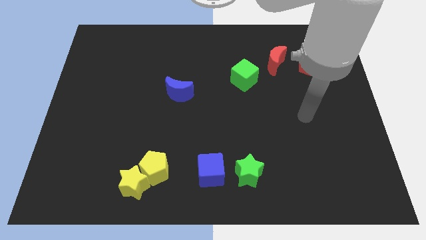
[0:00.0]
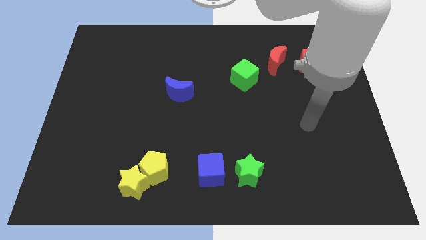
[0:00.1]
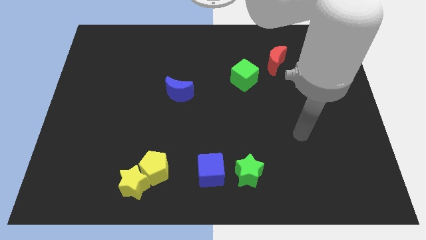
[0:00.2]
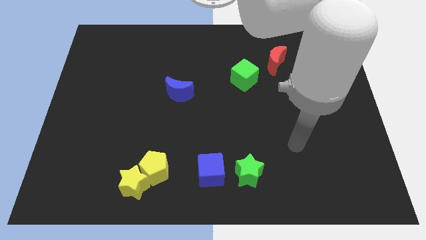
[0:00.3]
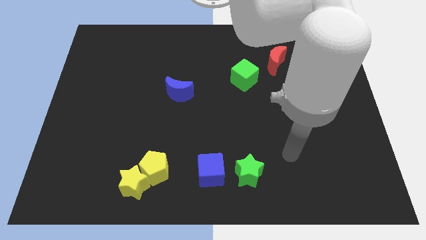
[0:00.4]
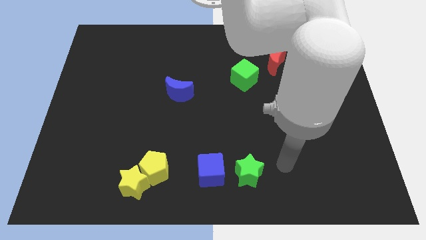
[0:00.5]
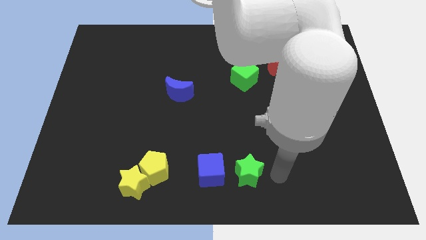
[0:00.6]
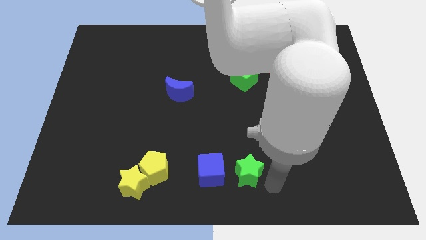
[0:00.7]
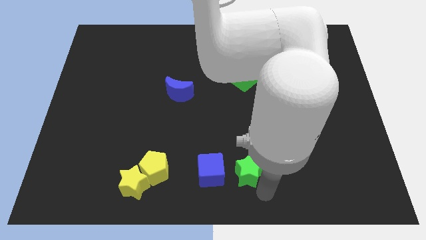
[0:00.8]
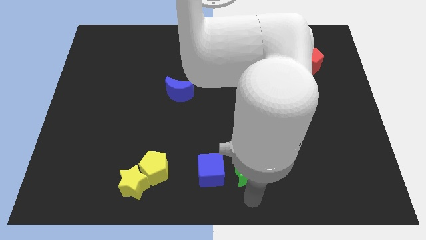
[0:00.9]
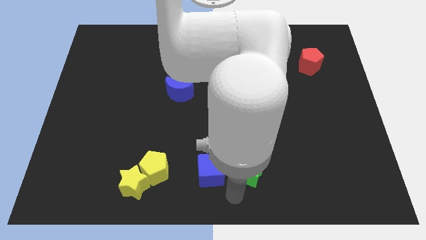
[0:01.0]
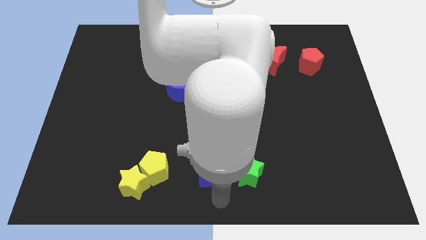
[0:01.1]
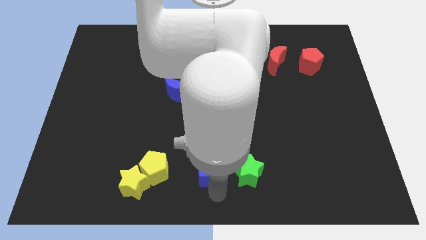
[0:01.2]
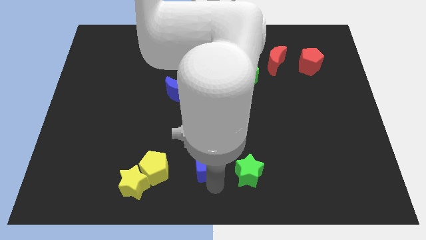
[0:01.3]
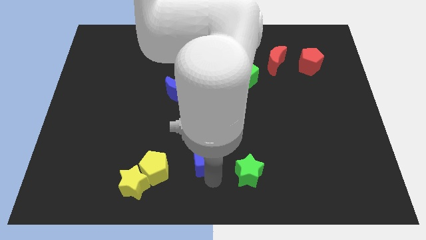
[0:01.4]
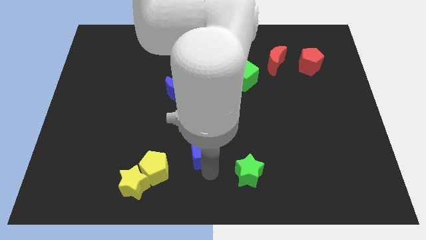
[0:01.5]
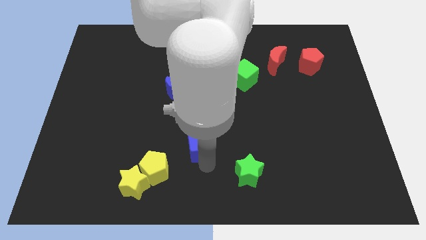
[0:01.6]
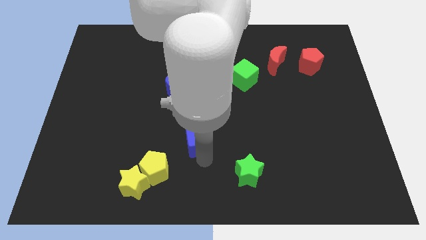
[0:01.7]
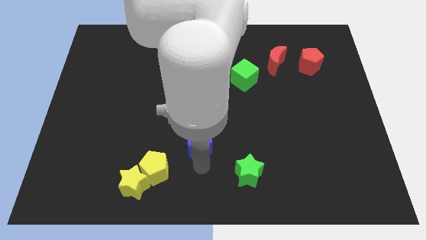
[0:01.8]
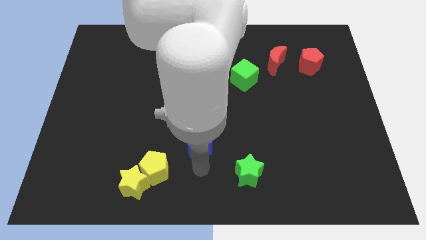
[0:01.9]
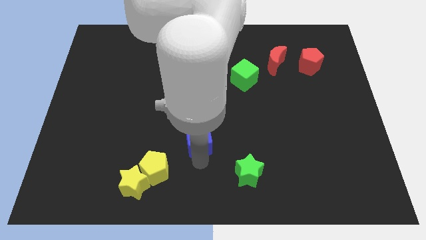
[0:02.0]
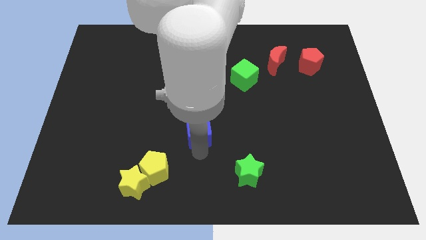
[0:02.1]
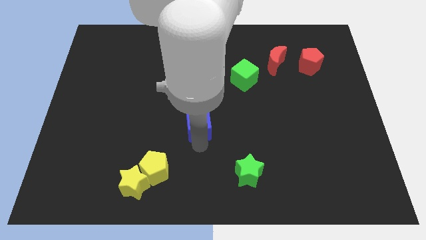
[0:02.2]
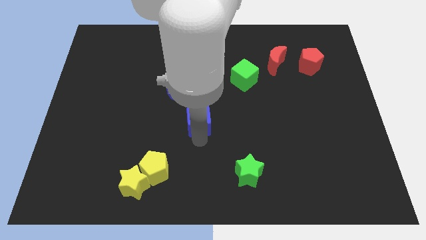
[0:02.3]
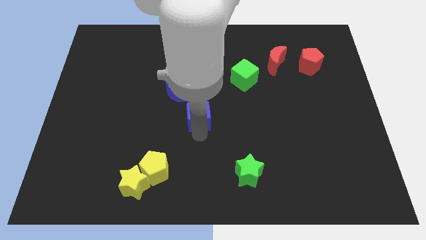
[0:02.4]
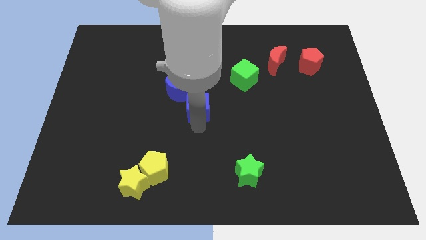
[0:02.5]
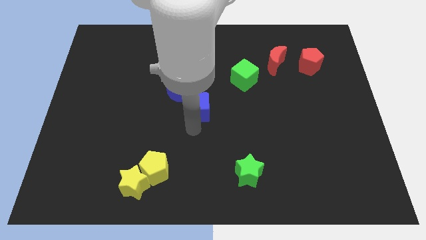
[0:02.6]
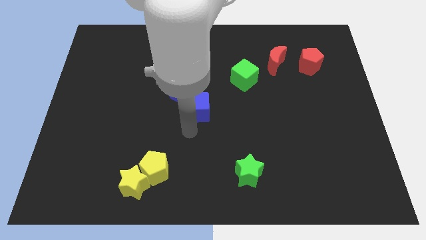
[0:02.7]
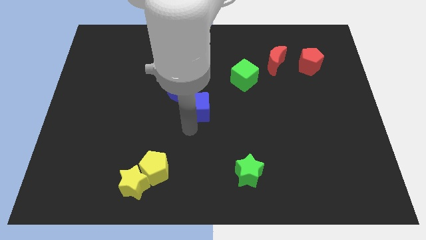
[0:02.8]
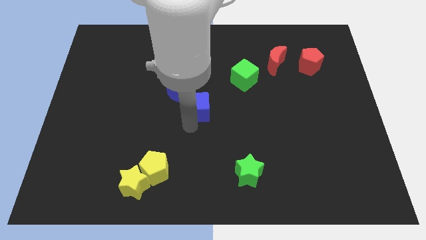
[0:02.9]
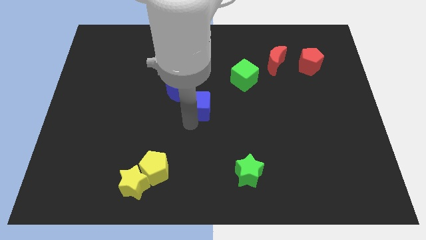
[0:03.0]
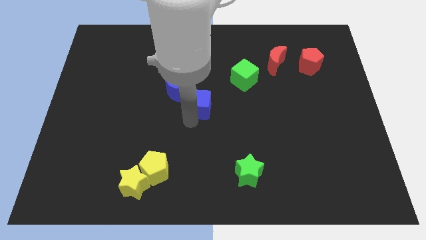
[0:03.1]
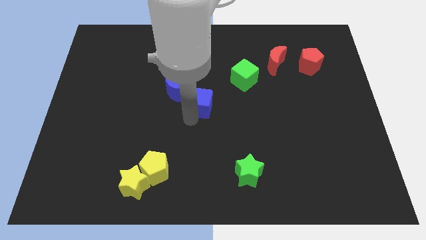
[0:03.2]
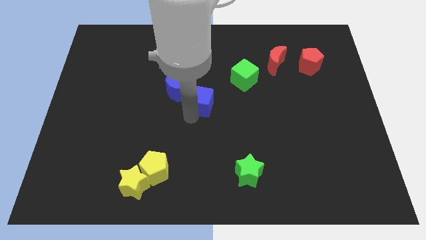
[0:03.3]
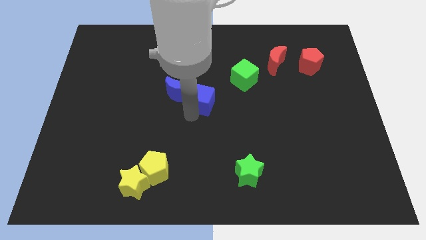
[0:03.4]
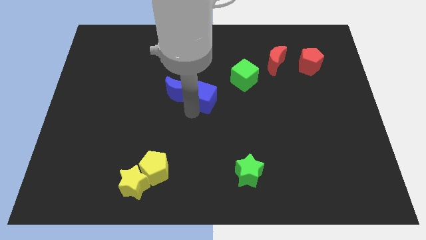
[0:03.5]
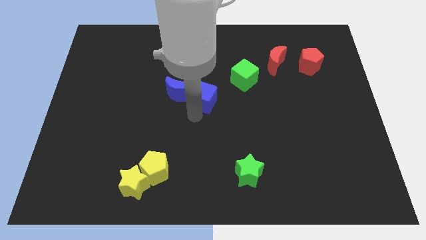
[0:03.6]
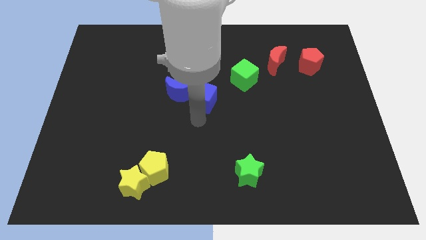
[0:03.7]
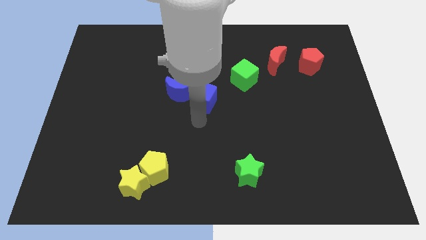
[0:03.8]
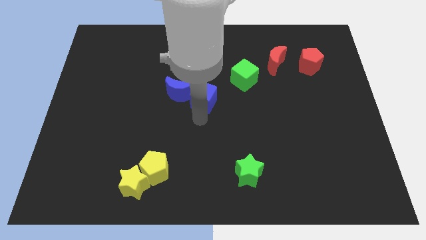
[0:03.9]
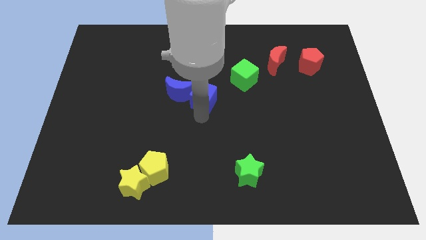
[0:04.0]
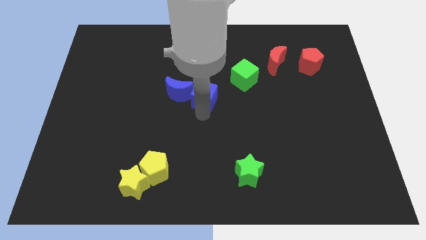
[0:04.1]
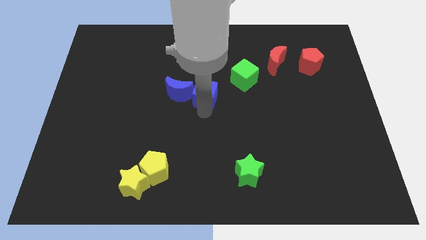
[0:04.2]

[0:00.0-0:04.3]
push the blue cube upwards

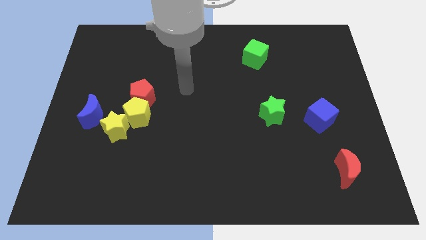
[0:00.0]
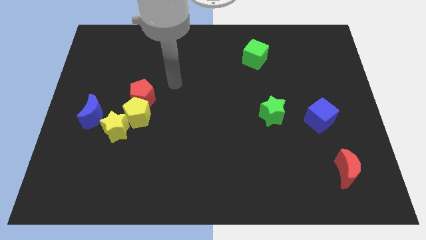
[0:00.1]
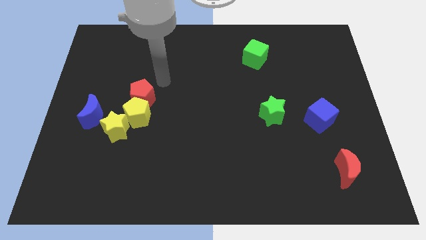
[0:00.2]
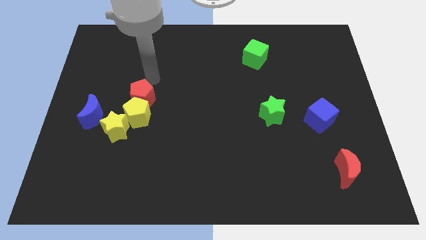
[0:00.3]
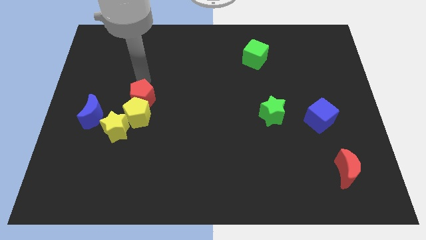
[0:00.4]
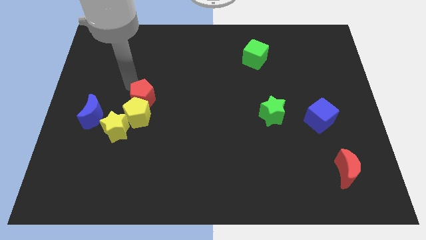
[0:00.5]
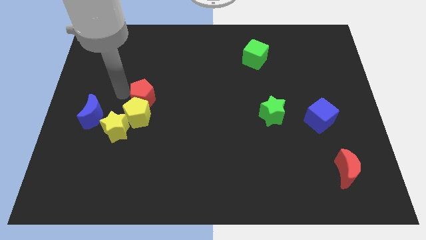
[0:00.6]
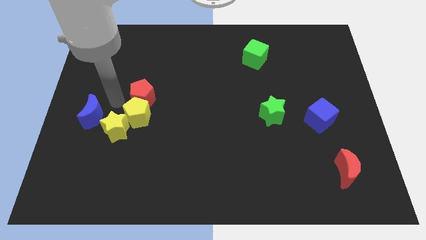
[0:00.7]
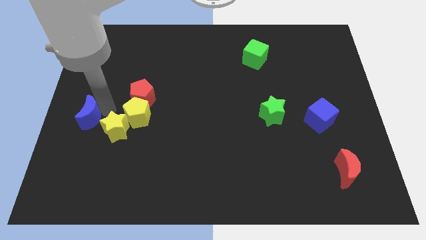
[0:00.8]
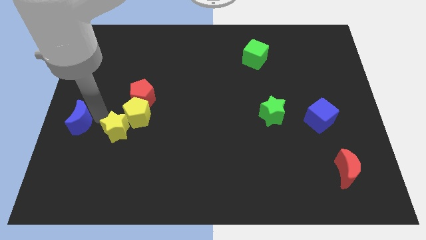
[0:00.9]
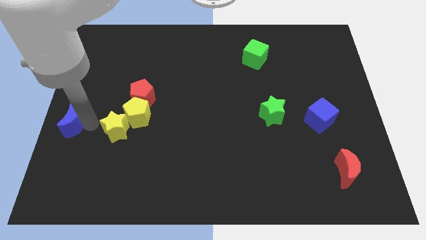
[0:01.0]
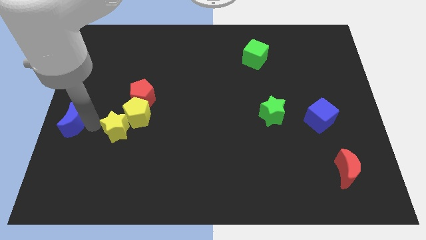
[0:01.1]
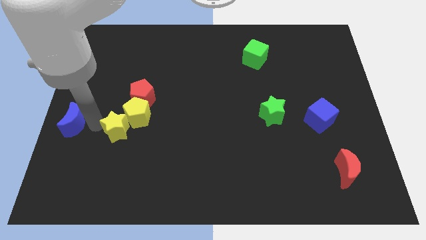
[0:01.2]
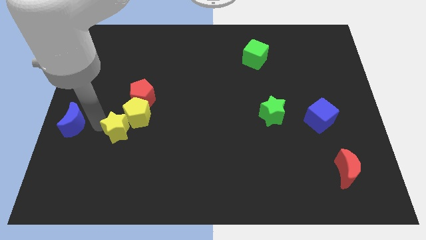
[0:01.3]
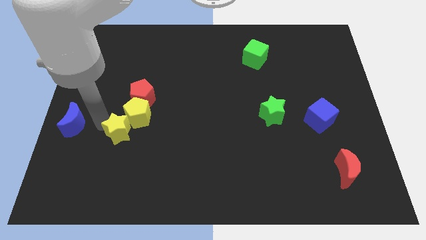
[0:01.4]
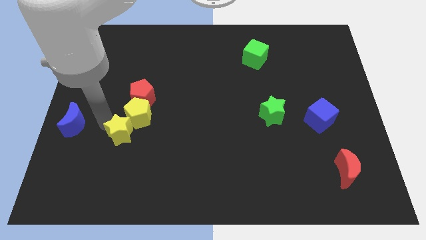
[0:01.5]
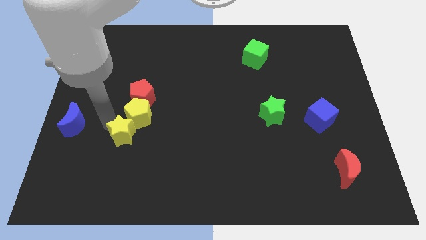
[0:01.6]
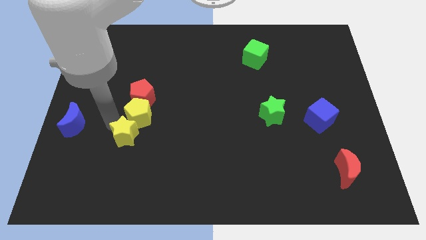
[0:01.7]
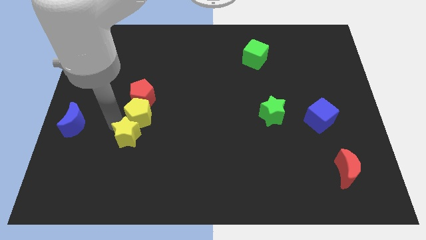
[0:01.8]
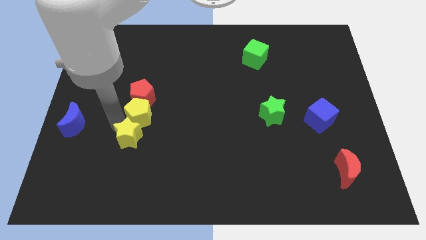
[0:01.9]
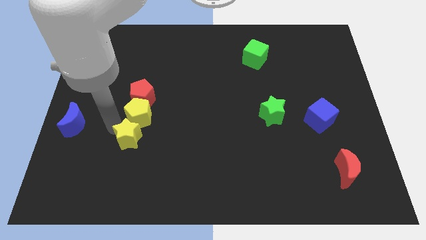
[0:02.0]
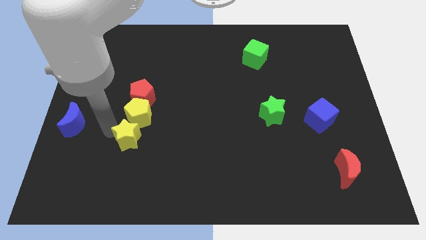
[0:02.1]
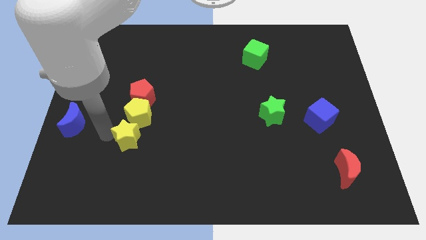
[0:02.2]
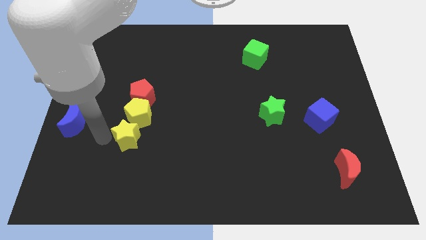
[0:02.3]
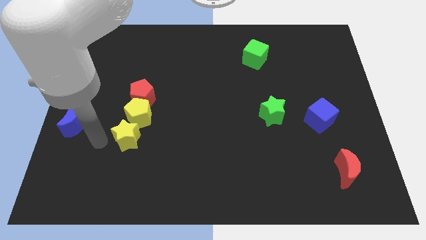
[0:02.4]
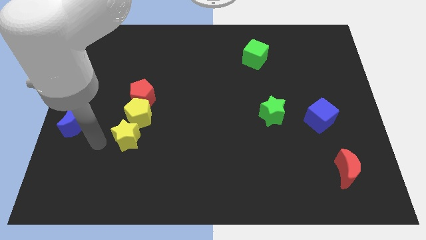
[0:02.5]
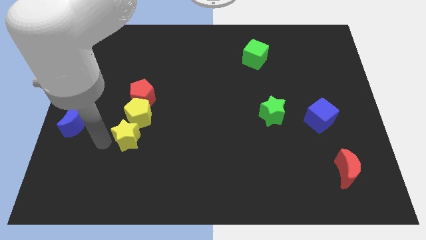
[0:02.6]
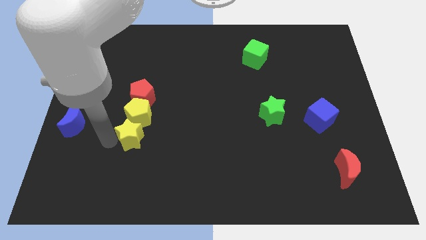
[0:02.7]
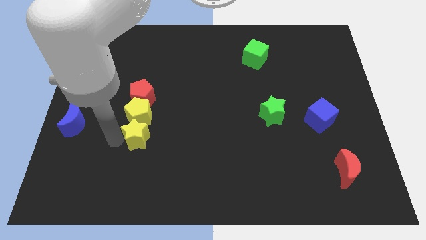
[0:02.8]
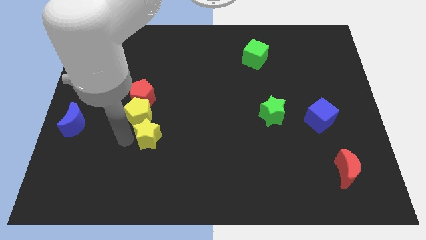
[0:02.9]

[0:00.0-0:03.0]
slightly slide the yellow star right

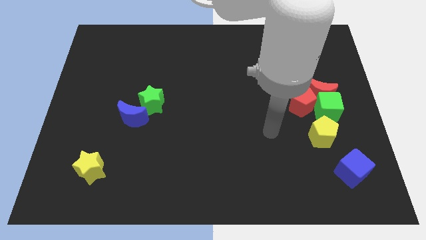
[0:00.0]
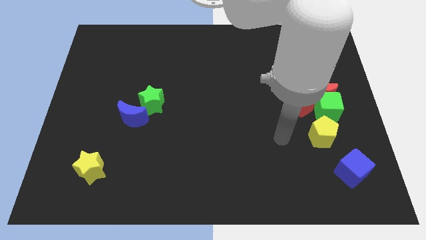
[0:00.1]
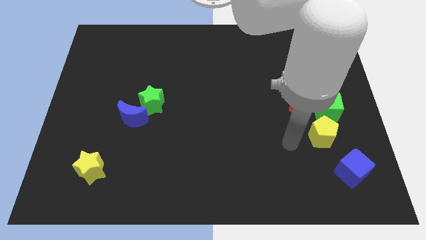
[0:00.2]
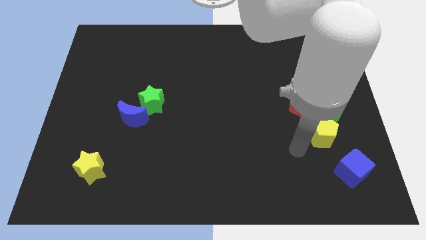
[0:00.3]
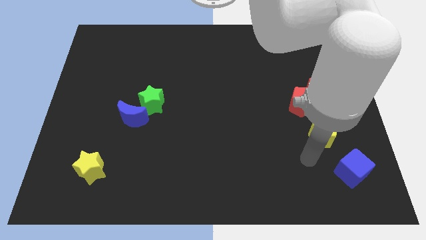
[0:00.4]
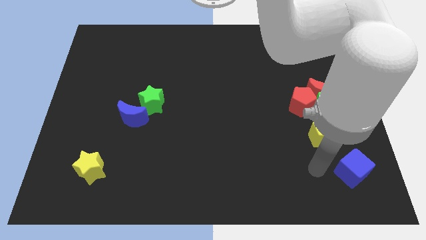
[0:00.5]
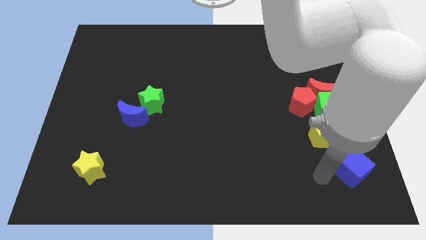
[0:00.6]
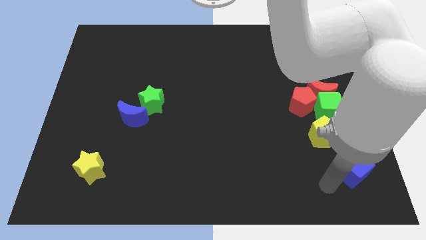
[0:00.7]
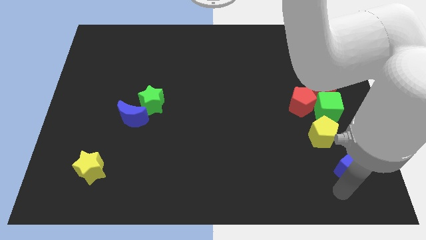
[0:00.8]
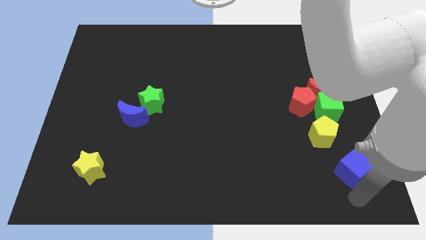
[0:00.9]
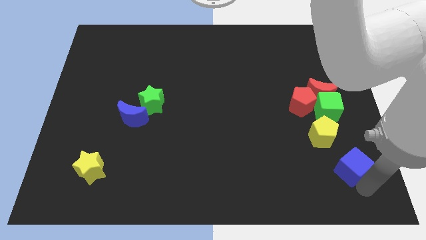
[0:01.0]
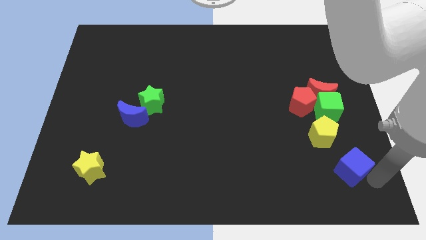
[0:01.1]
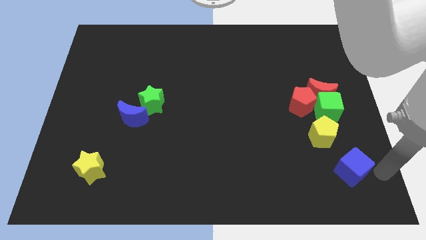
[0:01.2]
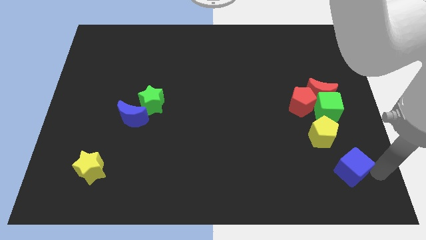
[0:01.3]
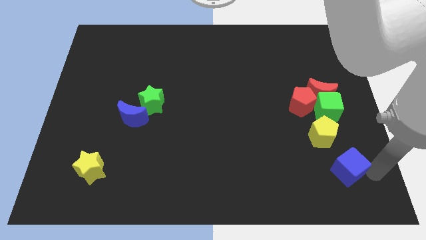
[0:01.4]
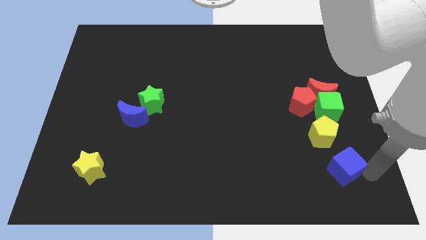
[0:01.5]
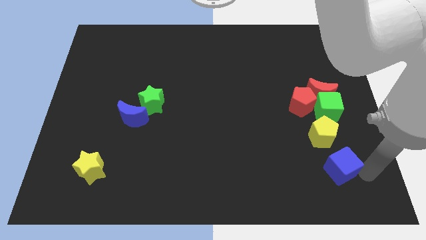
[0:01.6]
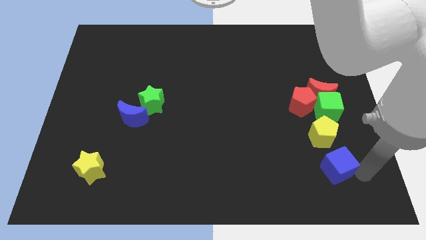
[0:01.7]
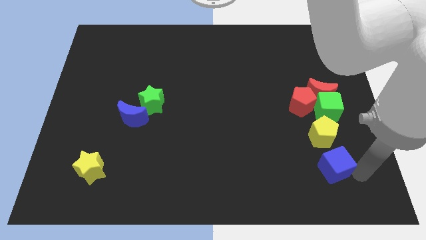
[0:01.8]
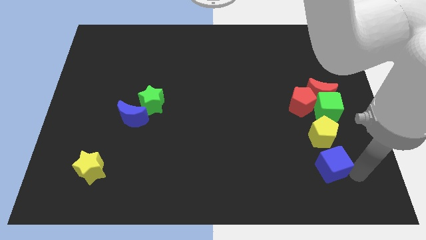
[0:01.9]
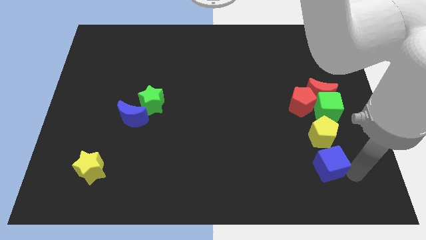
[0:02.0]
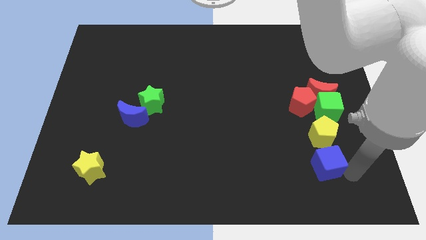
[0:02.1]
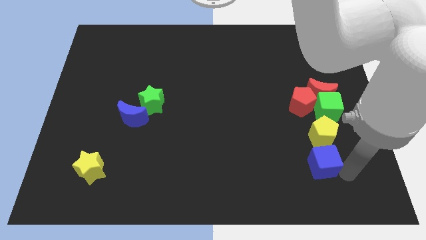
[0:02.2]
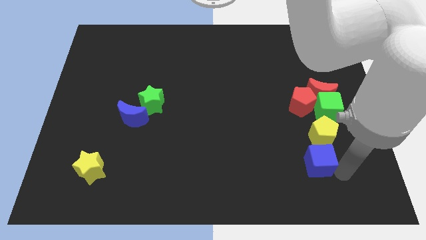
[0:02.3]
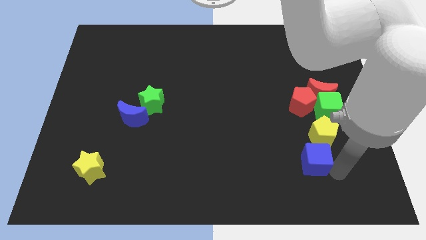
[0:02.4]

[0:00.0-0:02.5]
move the blue cube left a little
